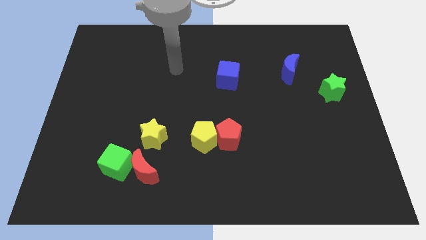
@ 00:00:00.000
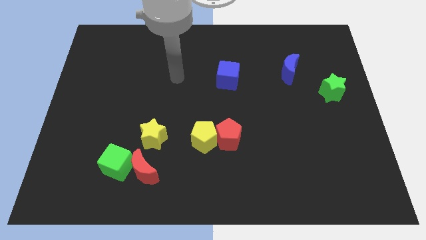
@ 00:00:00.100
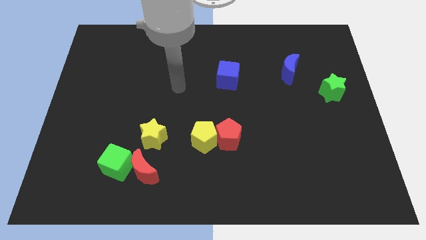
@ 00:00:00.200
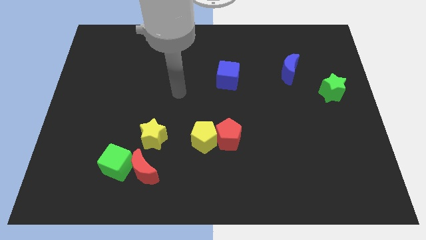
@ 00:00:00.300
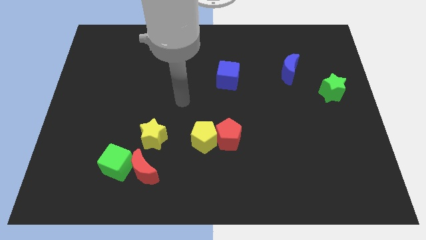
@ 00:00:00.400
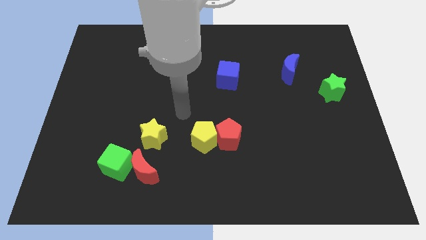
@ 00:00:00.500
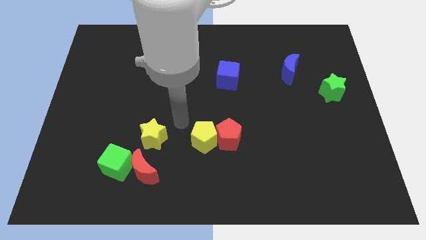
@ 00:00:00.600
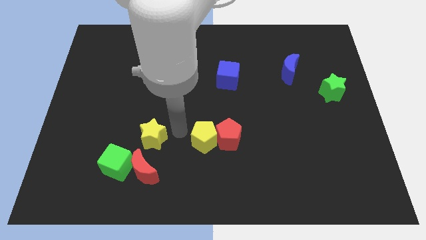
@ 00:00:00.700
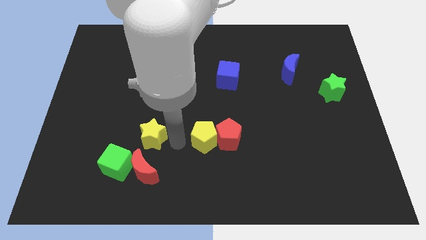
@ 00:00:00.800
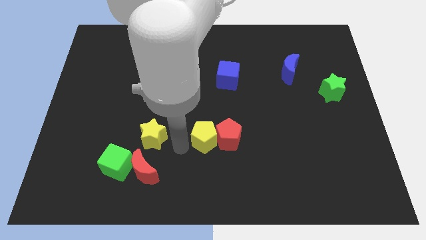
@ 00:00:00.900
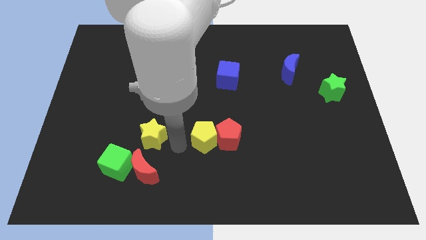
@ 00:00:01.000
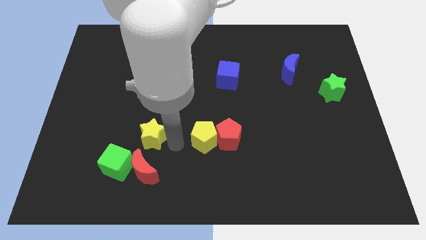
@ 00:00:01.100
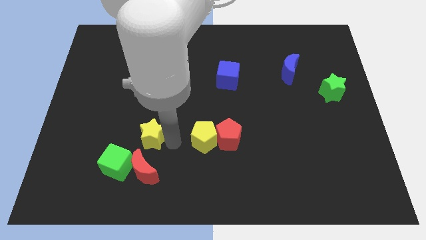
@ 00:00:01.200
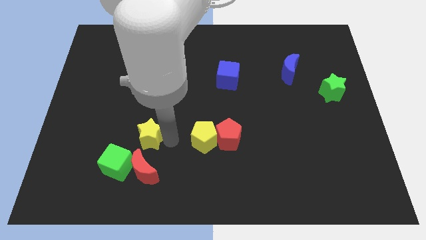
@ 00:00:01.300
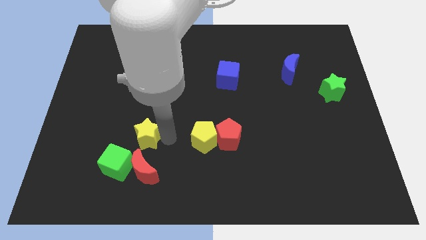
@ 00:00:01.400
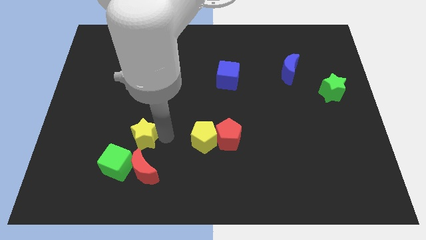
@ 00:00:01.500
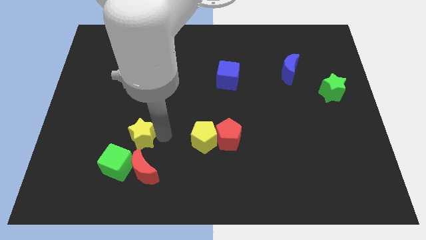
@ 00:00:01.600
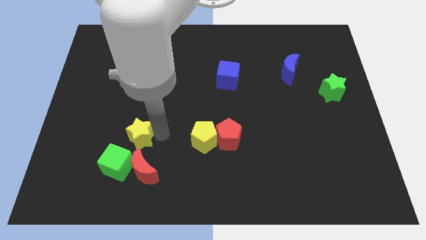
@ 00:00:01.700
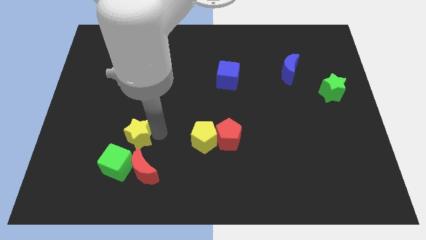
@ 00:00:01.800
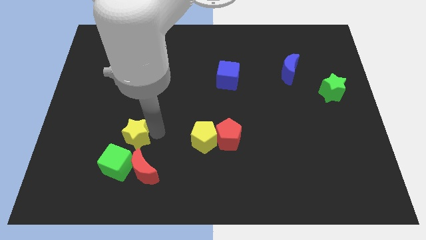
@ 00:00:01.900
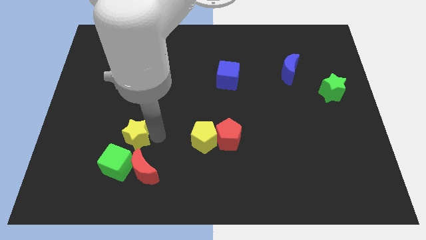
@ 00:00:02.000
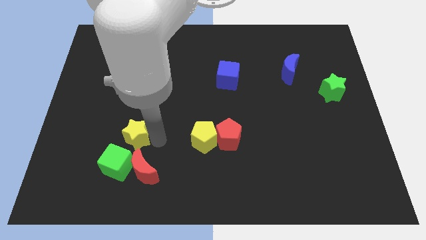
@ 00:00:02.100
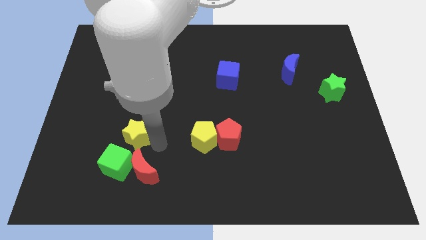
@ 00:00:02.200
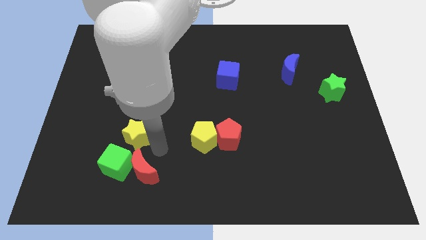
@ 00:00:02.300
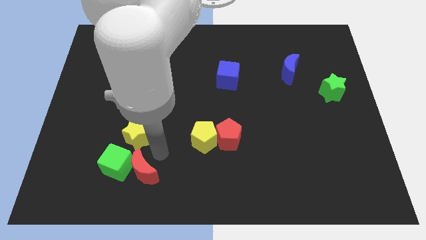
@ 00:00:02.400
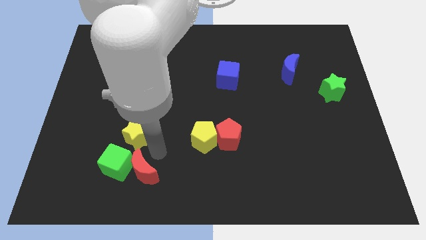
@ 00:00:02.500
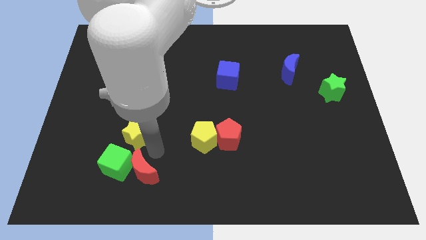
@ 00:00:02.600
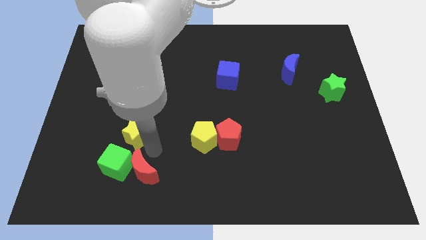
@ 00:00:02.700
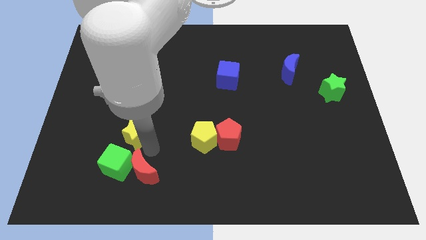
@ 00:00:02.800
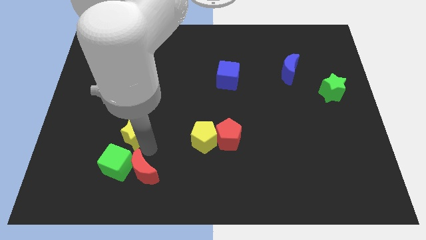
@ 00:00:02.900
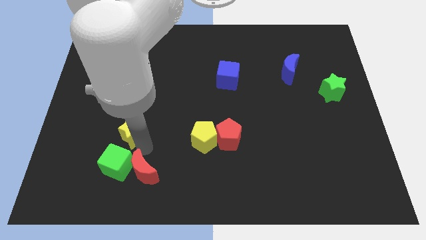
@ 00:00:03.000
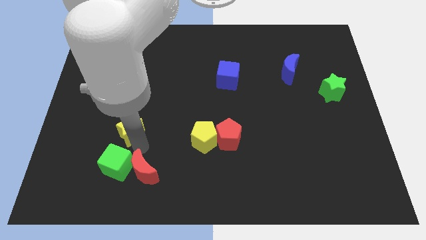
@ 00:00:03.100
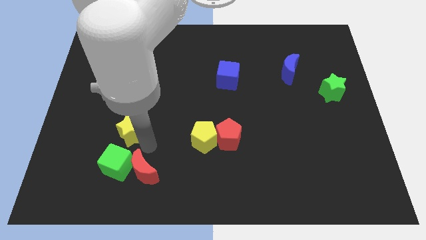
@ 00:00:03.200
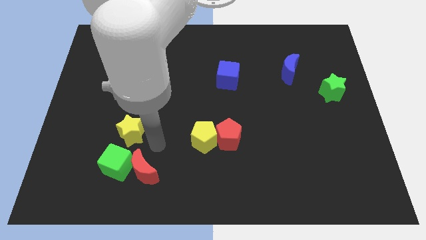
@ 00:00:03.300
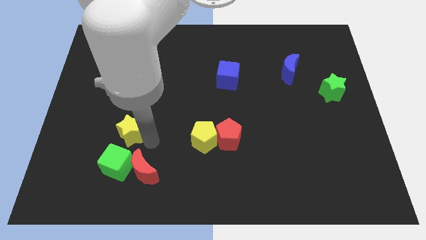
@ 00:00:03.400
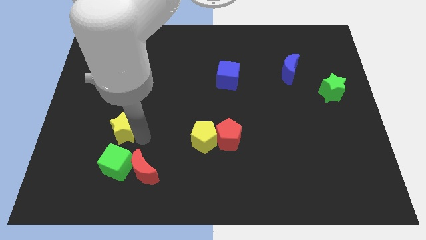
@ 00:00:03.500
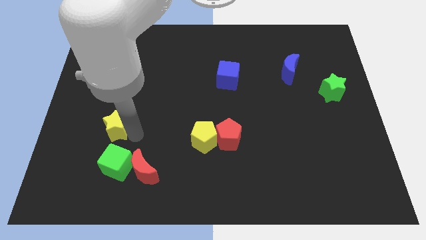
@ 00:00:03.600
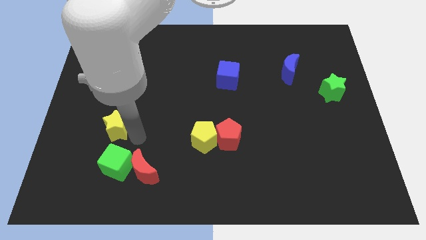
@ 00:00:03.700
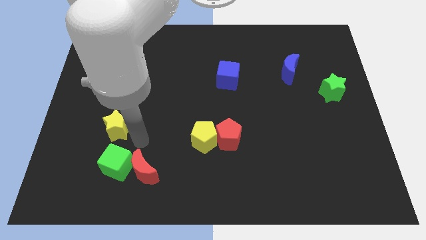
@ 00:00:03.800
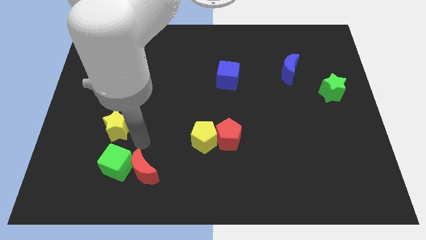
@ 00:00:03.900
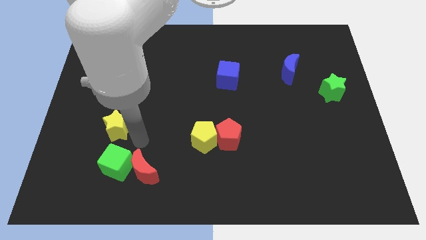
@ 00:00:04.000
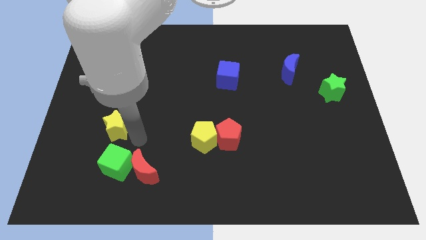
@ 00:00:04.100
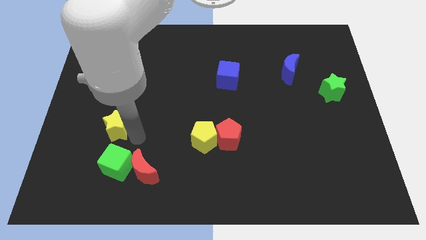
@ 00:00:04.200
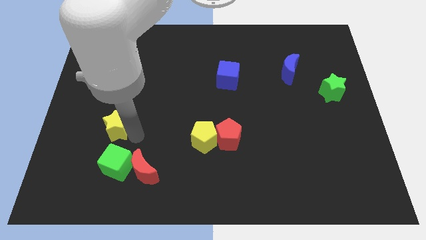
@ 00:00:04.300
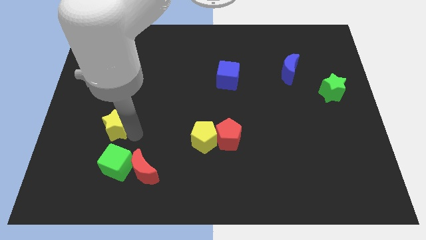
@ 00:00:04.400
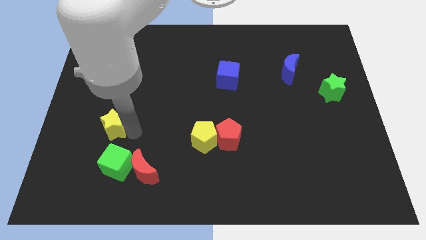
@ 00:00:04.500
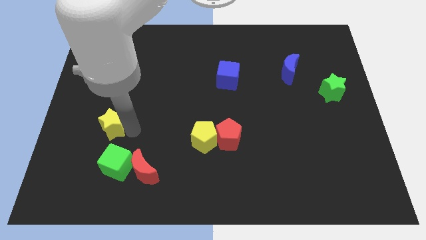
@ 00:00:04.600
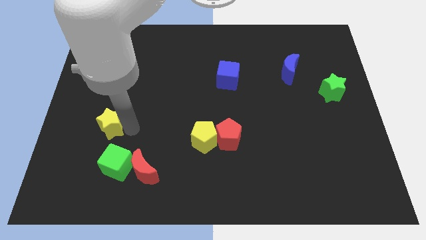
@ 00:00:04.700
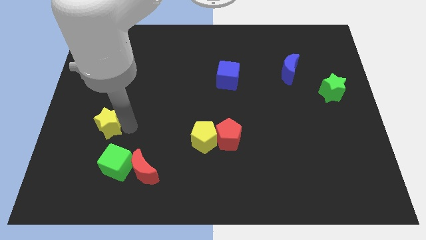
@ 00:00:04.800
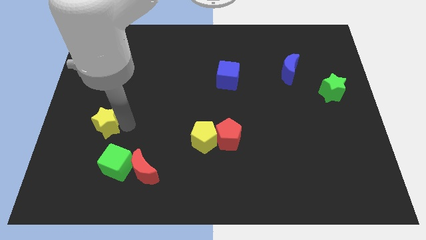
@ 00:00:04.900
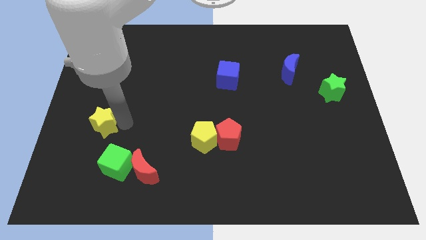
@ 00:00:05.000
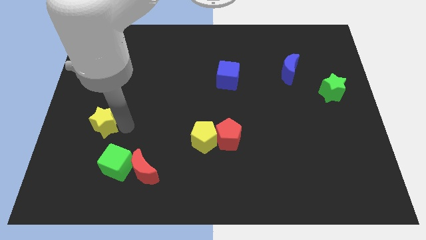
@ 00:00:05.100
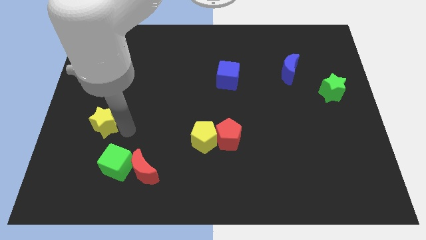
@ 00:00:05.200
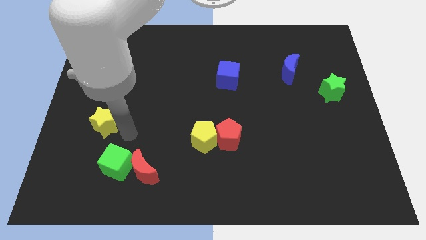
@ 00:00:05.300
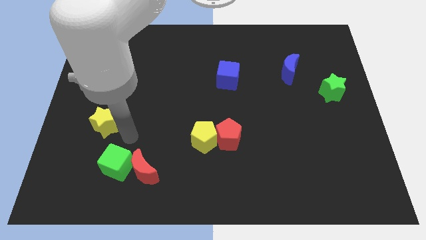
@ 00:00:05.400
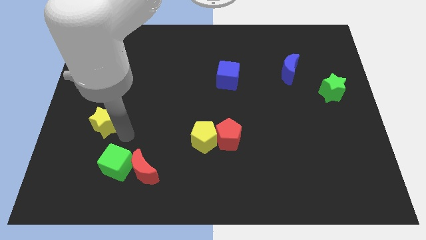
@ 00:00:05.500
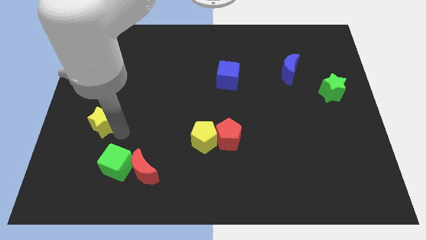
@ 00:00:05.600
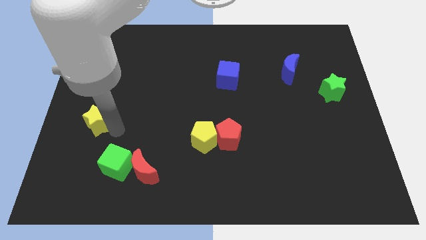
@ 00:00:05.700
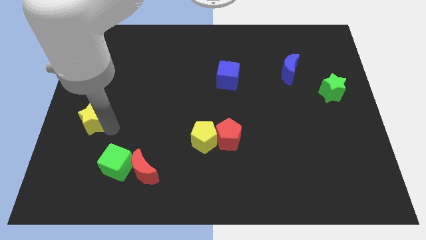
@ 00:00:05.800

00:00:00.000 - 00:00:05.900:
push the yellow star to the left side of the board
